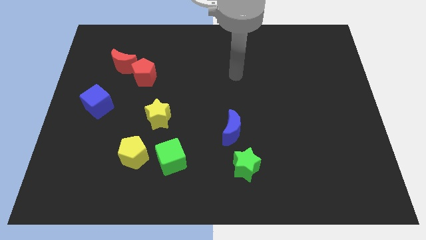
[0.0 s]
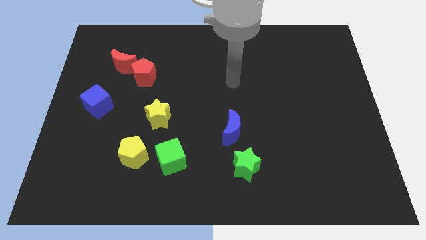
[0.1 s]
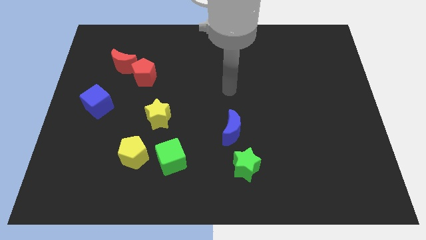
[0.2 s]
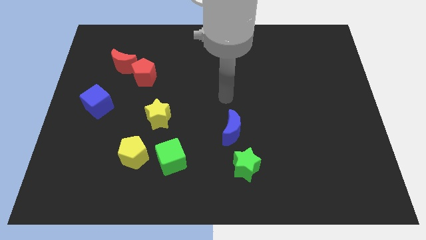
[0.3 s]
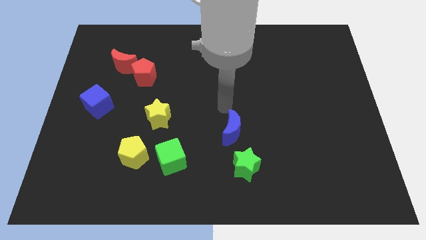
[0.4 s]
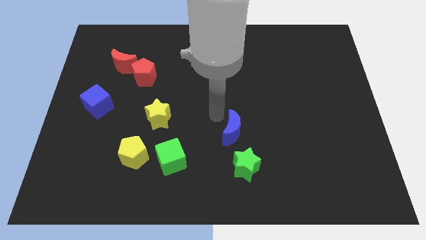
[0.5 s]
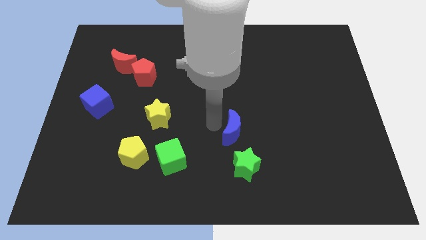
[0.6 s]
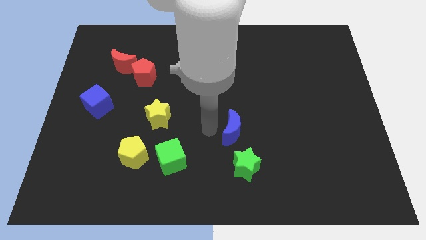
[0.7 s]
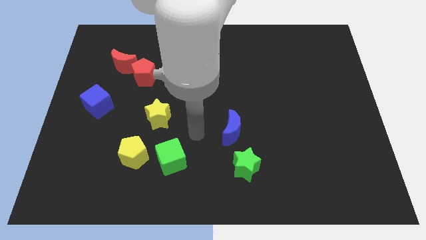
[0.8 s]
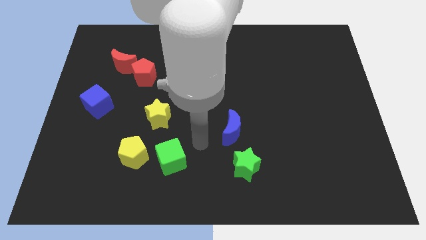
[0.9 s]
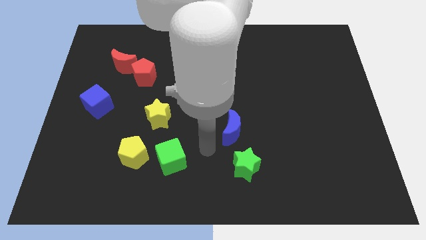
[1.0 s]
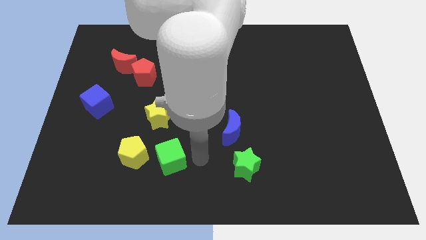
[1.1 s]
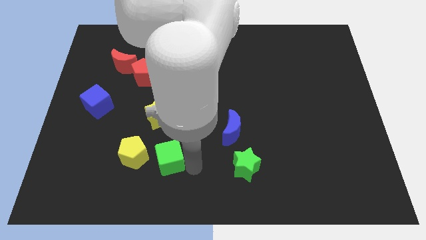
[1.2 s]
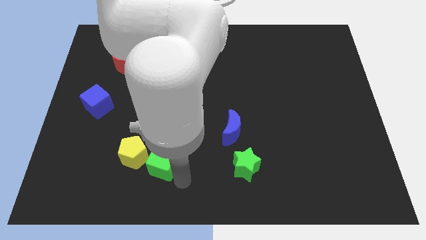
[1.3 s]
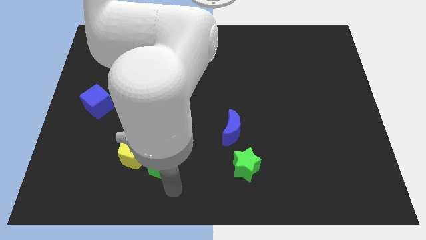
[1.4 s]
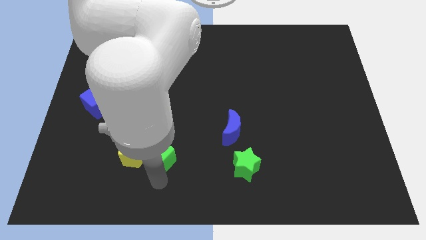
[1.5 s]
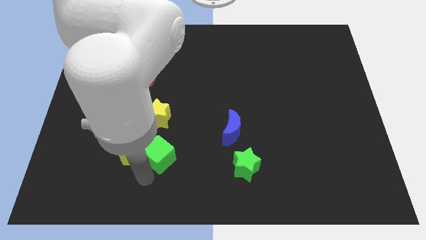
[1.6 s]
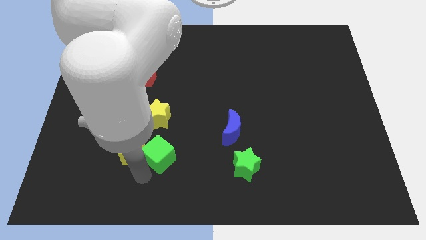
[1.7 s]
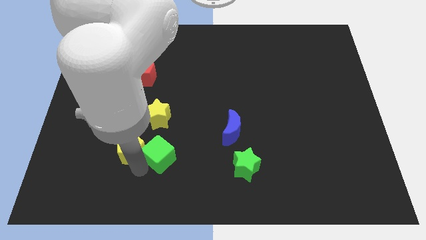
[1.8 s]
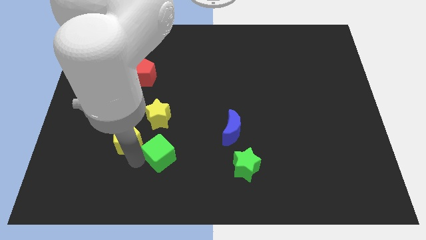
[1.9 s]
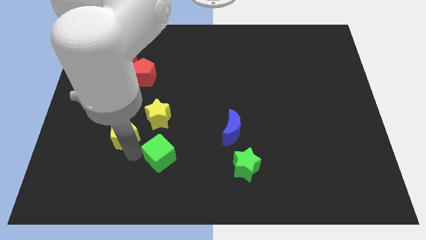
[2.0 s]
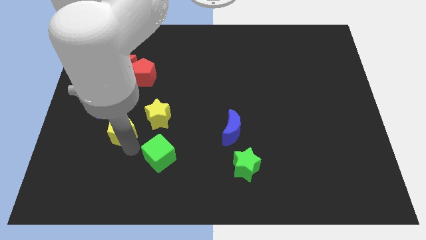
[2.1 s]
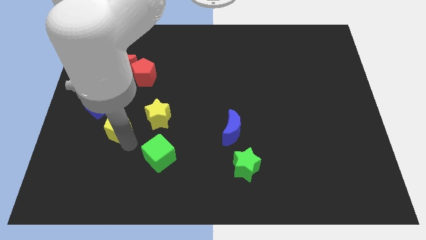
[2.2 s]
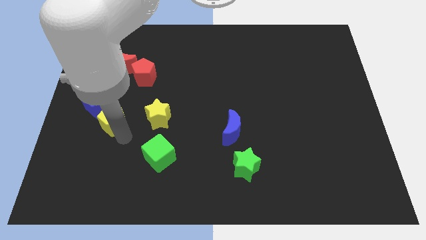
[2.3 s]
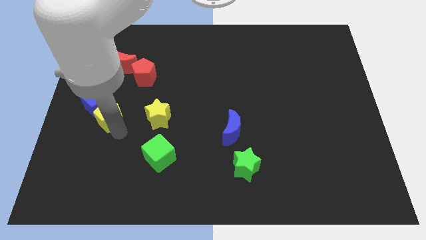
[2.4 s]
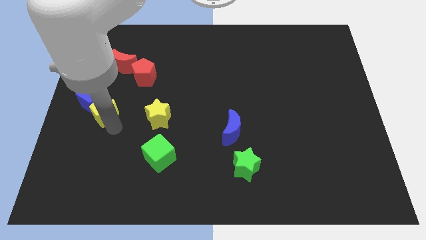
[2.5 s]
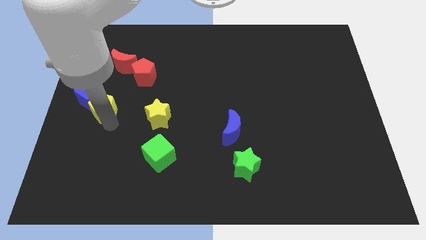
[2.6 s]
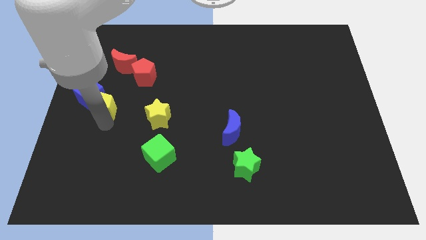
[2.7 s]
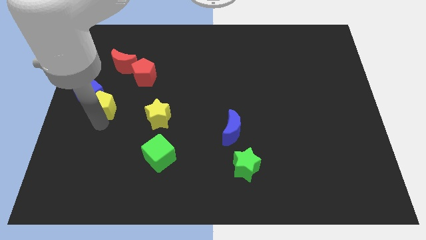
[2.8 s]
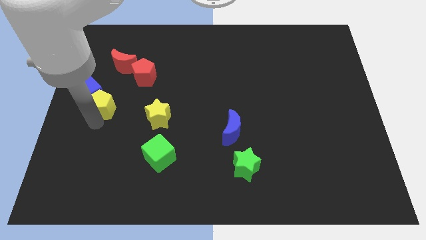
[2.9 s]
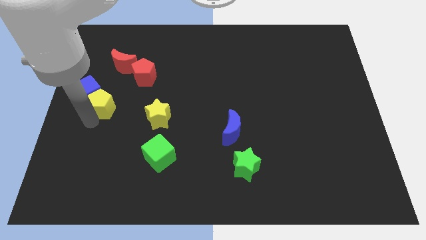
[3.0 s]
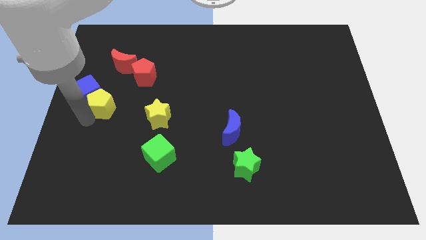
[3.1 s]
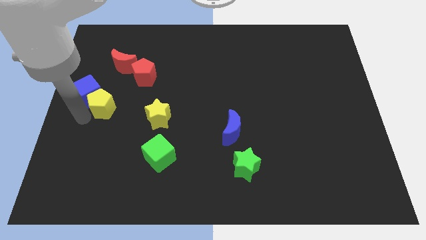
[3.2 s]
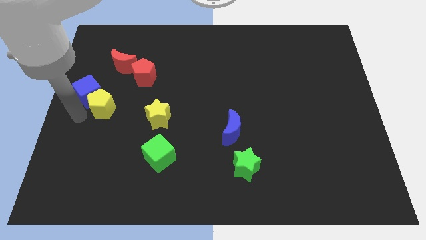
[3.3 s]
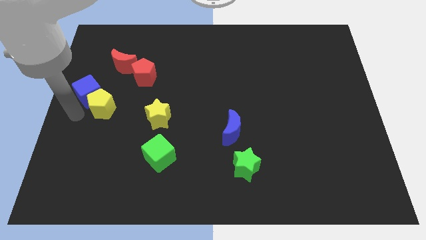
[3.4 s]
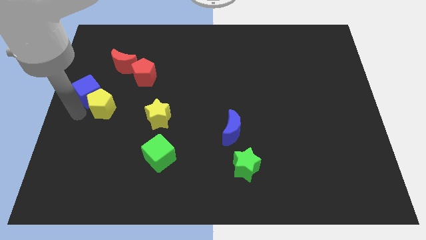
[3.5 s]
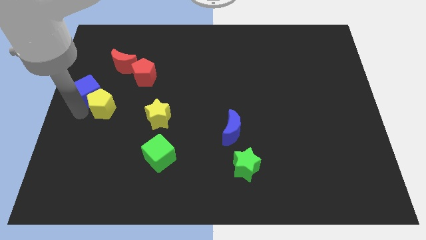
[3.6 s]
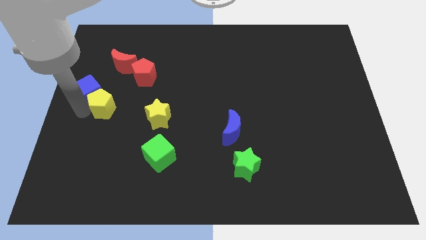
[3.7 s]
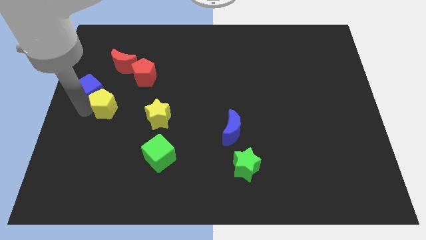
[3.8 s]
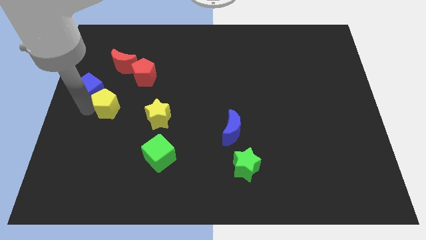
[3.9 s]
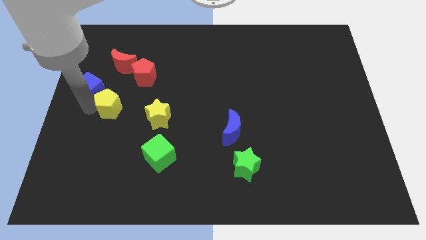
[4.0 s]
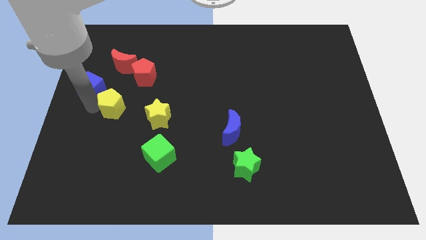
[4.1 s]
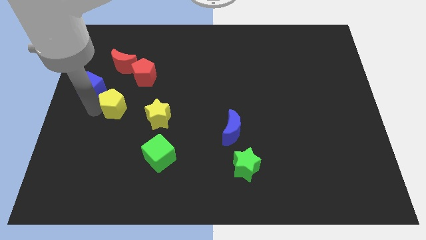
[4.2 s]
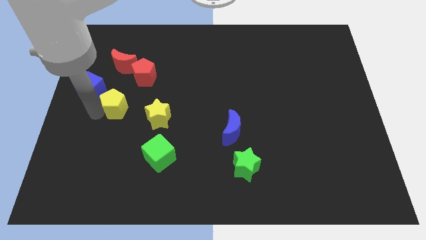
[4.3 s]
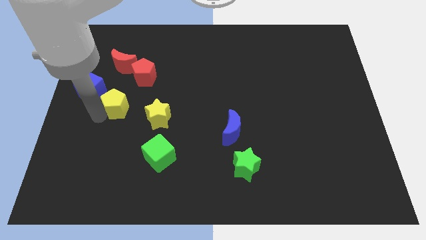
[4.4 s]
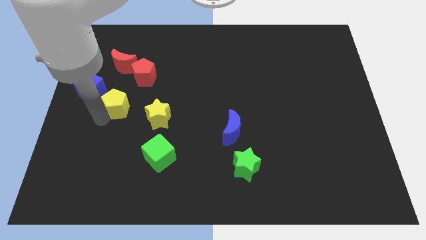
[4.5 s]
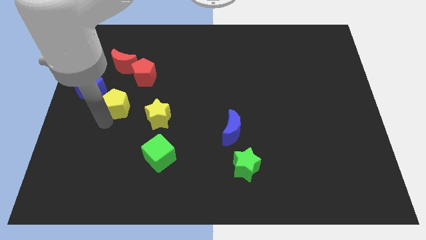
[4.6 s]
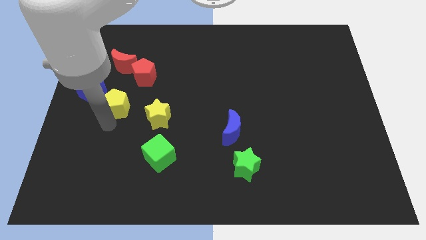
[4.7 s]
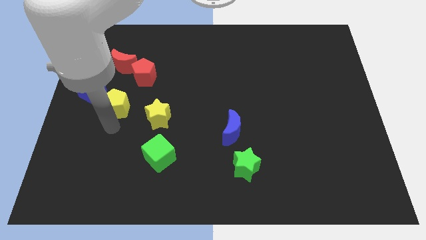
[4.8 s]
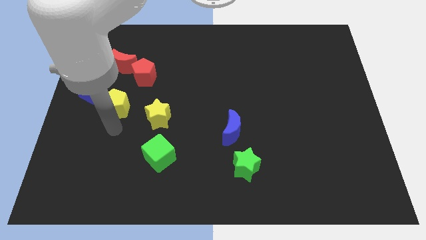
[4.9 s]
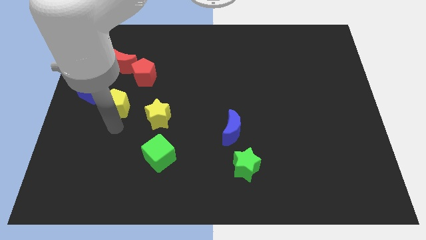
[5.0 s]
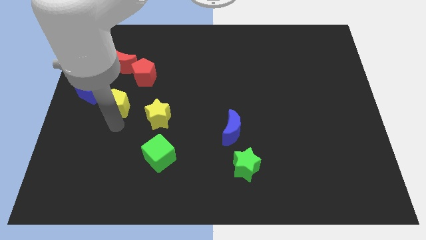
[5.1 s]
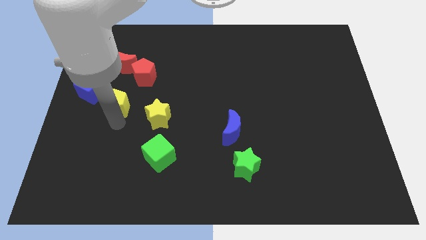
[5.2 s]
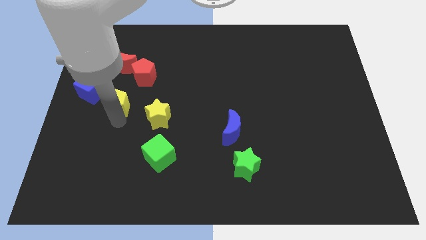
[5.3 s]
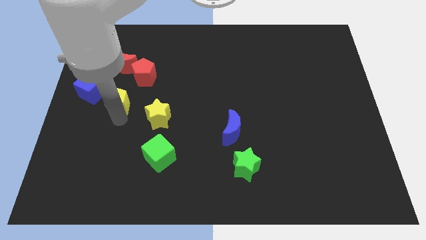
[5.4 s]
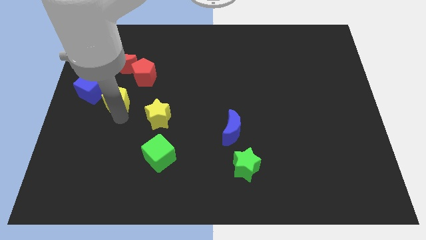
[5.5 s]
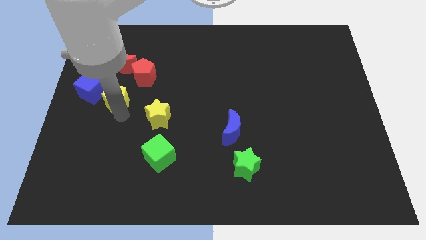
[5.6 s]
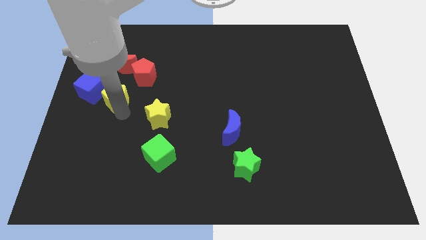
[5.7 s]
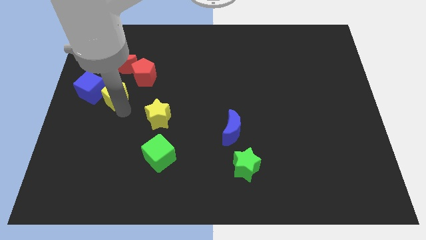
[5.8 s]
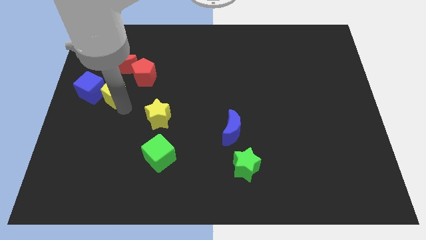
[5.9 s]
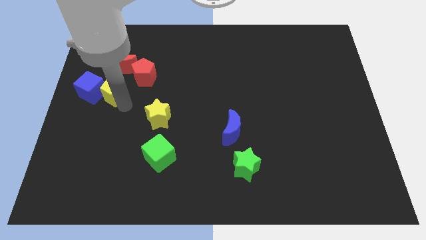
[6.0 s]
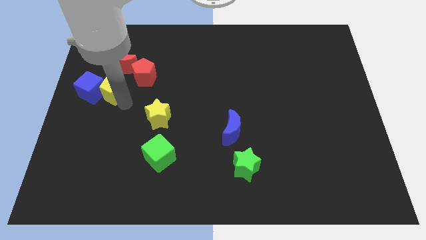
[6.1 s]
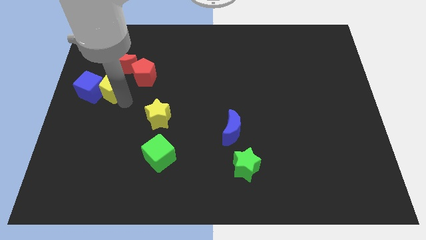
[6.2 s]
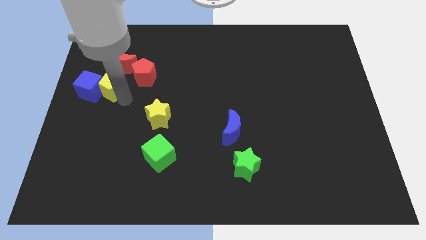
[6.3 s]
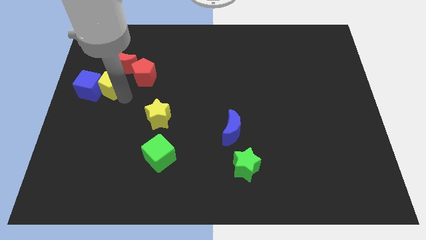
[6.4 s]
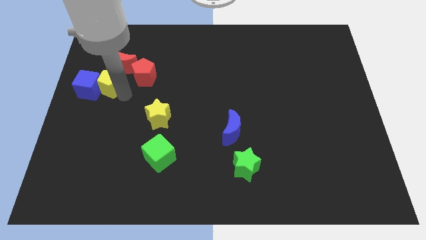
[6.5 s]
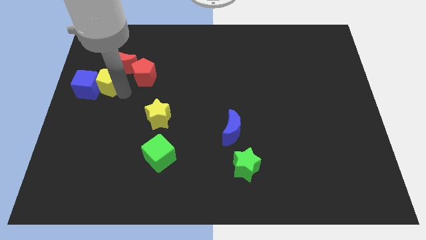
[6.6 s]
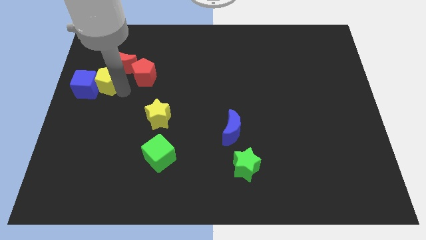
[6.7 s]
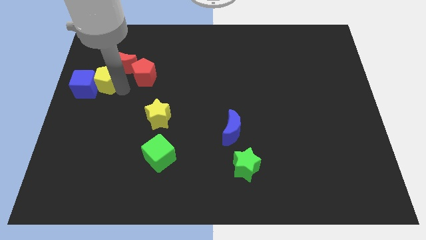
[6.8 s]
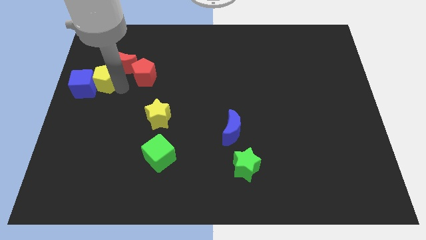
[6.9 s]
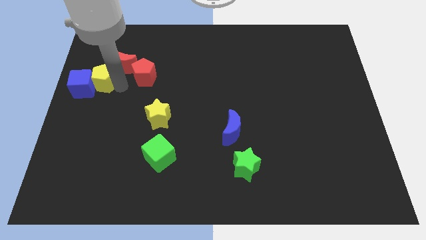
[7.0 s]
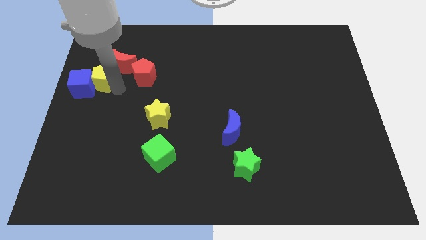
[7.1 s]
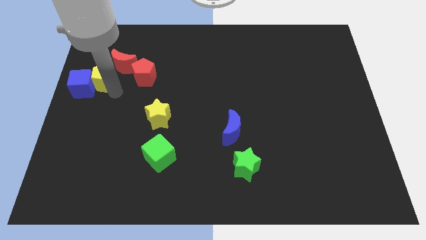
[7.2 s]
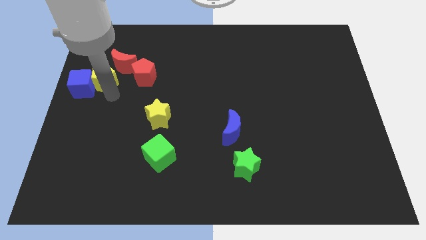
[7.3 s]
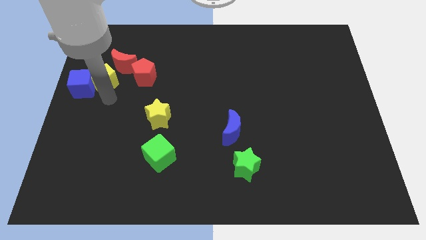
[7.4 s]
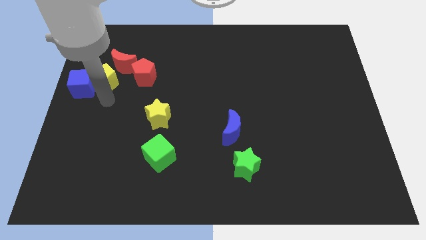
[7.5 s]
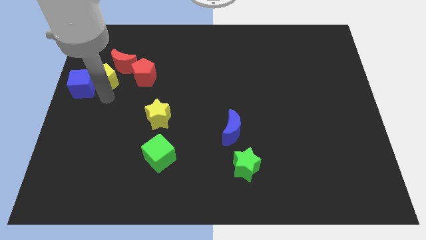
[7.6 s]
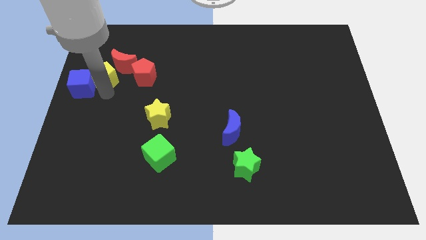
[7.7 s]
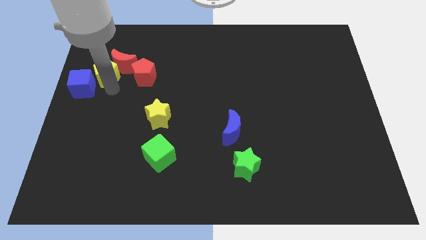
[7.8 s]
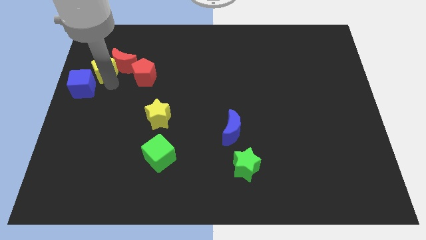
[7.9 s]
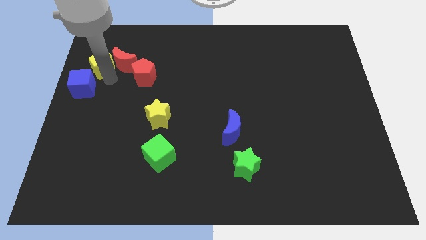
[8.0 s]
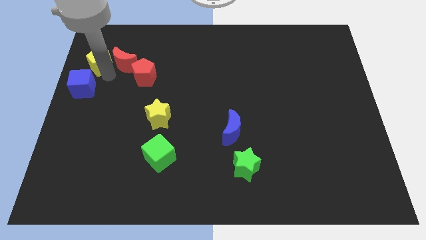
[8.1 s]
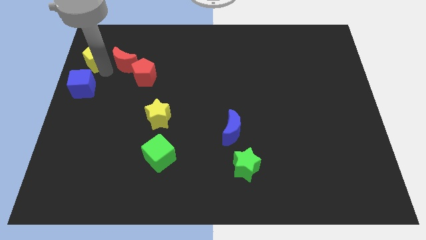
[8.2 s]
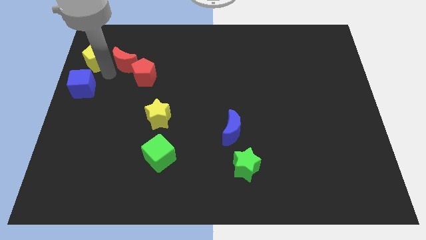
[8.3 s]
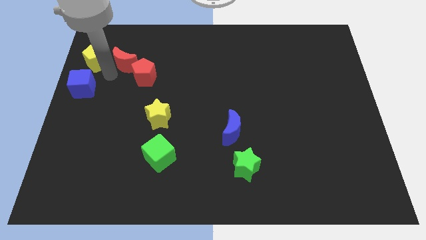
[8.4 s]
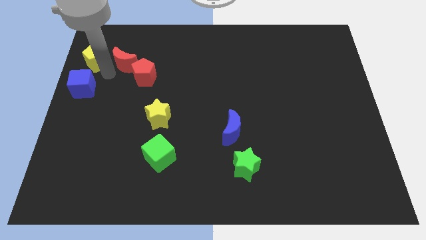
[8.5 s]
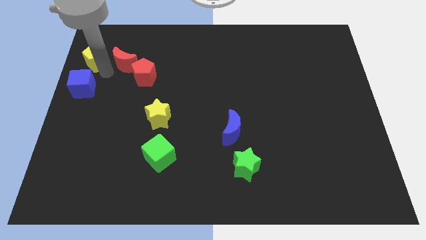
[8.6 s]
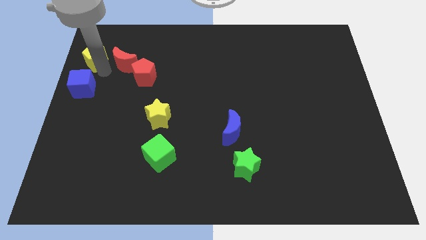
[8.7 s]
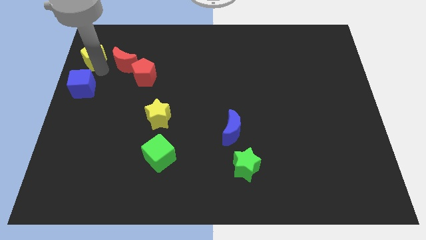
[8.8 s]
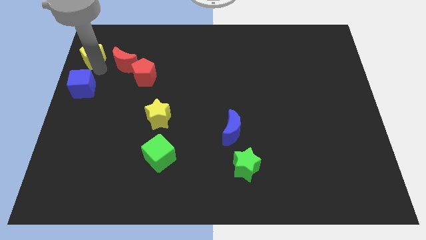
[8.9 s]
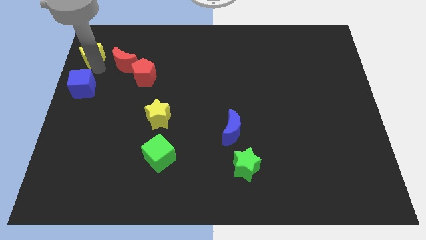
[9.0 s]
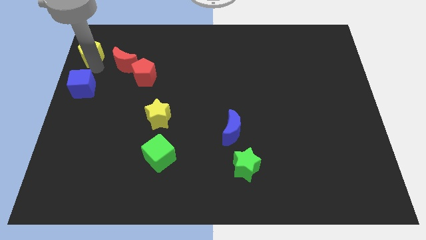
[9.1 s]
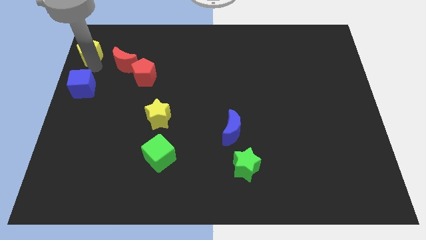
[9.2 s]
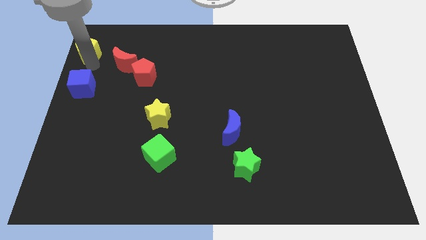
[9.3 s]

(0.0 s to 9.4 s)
slide the yellow pentagon to the top left
